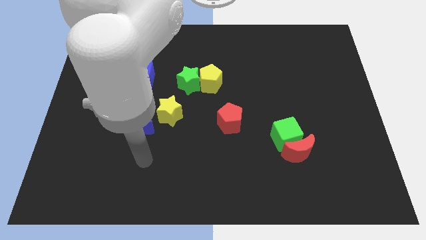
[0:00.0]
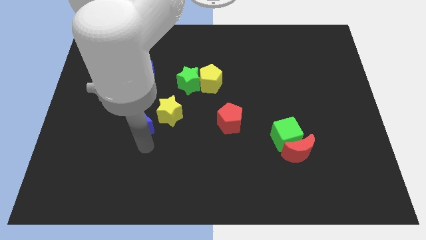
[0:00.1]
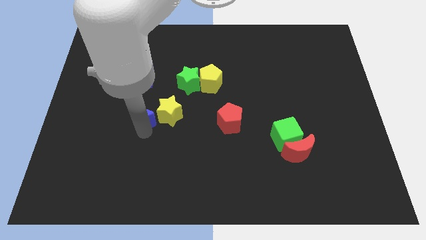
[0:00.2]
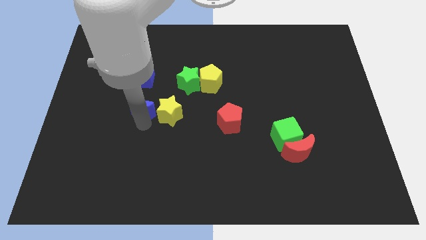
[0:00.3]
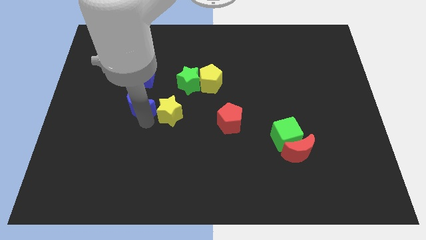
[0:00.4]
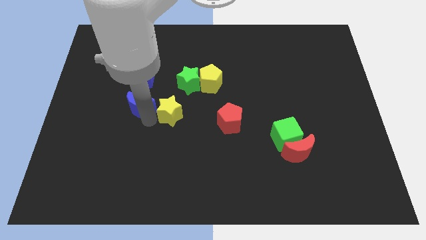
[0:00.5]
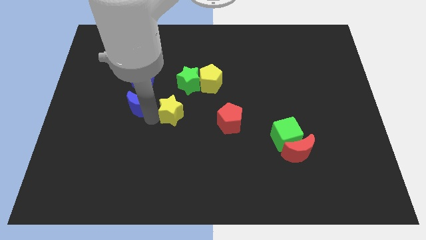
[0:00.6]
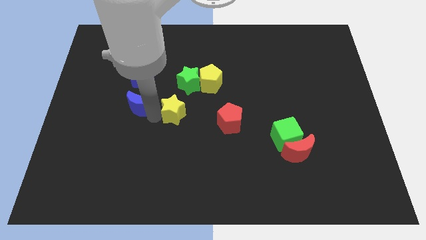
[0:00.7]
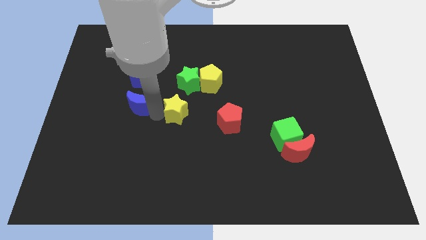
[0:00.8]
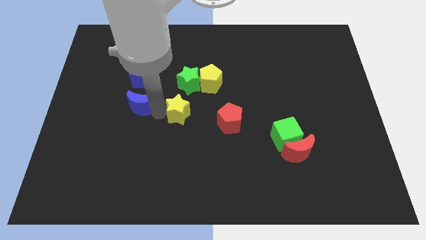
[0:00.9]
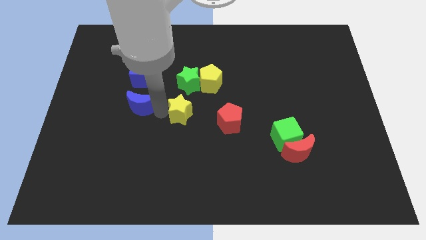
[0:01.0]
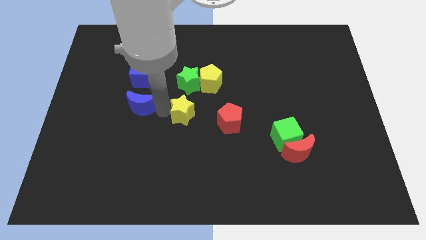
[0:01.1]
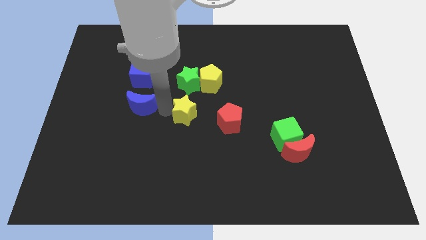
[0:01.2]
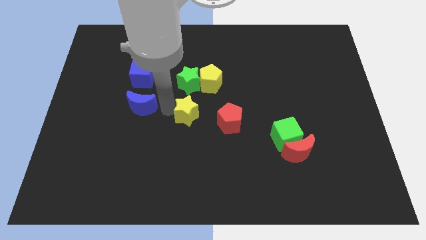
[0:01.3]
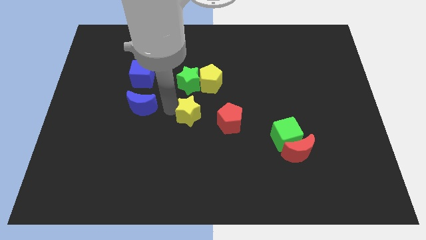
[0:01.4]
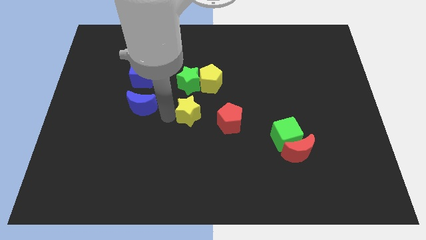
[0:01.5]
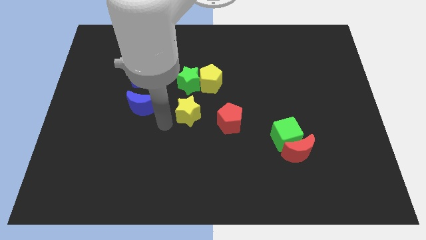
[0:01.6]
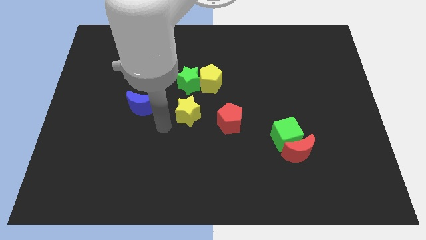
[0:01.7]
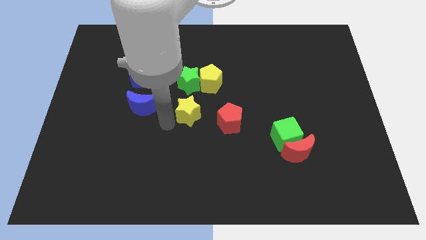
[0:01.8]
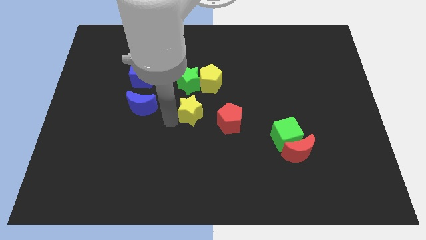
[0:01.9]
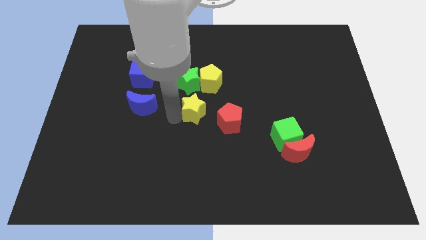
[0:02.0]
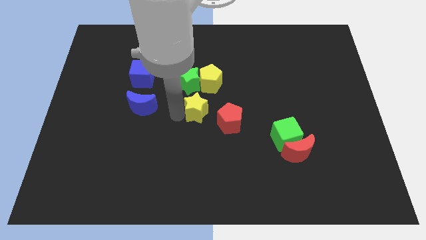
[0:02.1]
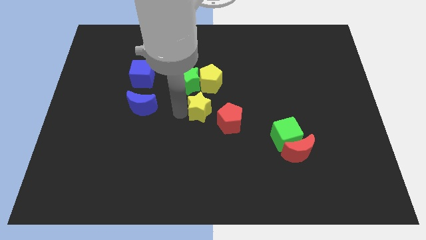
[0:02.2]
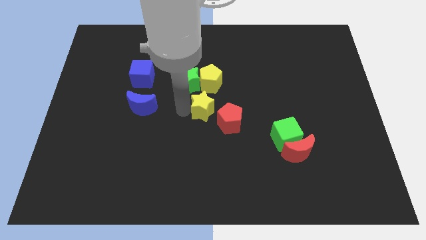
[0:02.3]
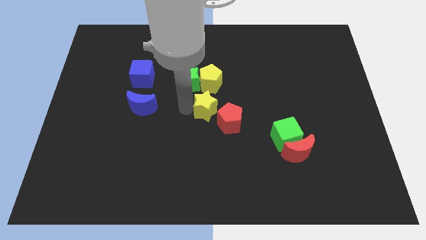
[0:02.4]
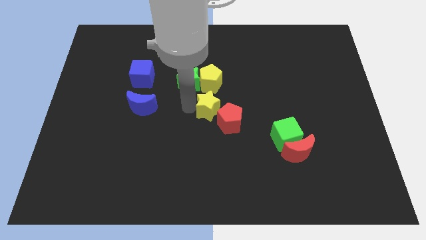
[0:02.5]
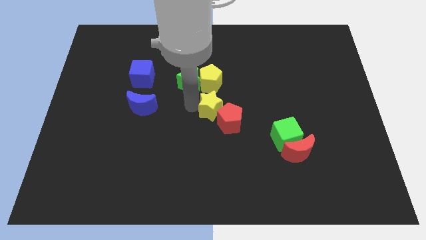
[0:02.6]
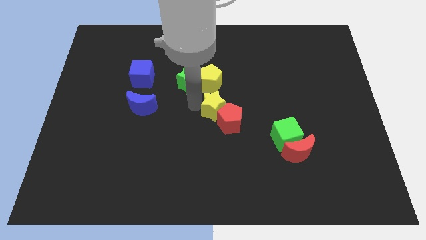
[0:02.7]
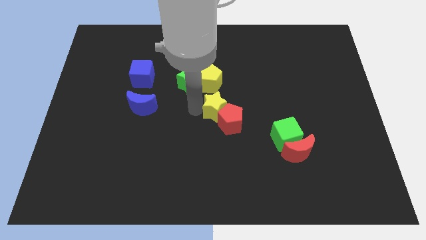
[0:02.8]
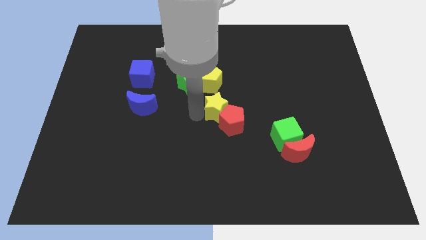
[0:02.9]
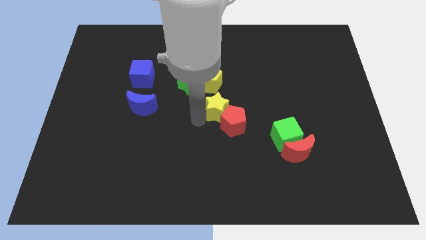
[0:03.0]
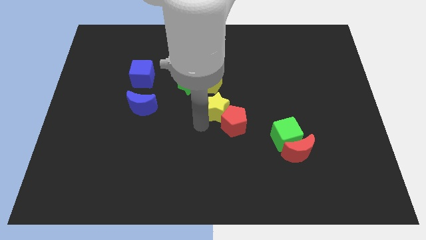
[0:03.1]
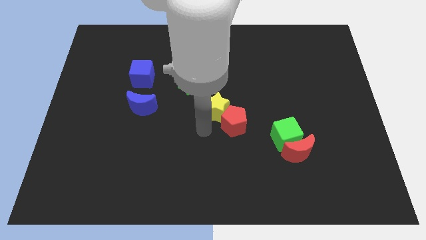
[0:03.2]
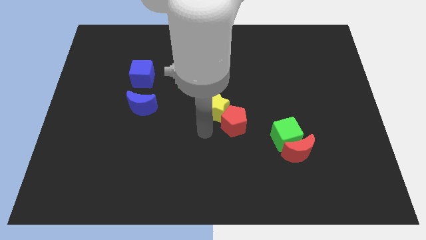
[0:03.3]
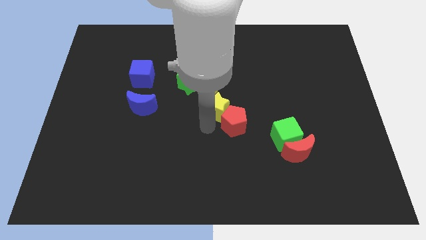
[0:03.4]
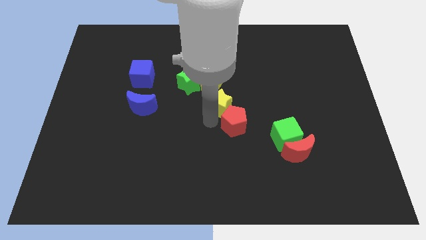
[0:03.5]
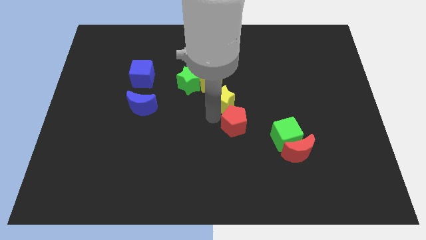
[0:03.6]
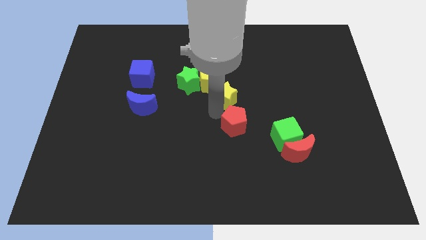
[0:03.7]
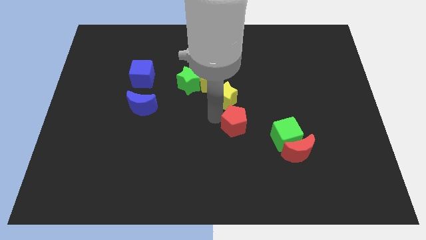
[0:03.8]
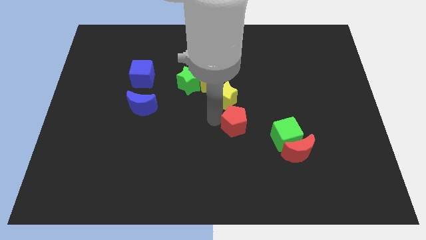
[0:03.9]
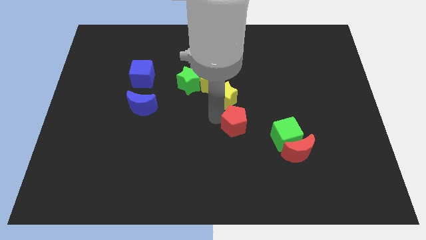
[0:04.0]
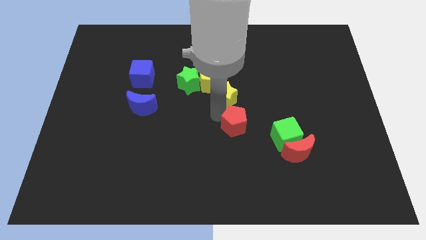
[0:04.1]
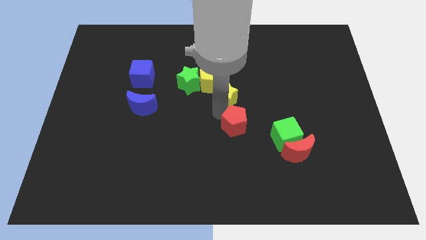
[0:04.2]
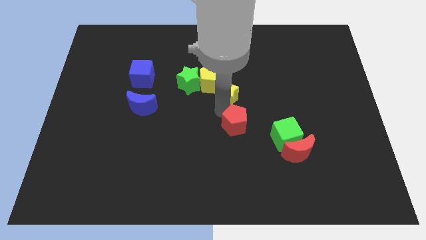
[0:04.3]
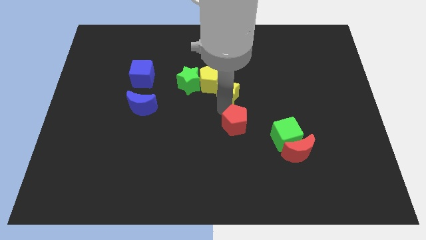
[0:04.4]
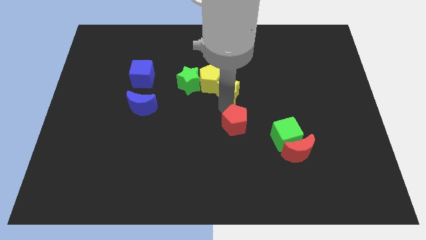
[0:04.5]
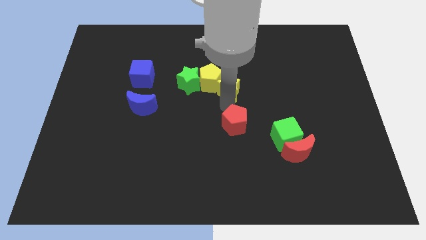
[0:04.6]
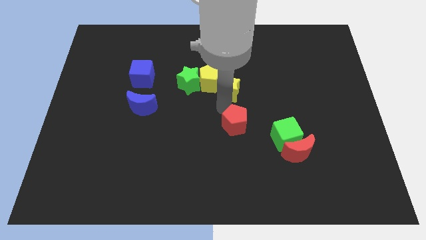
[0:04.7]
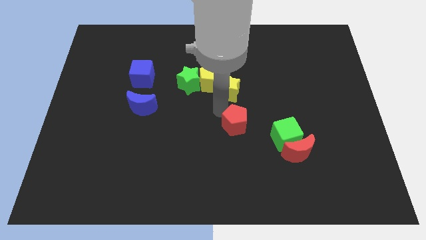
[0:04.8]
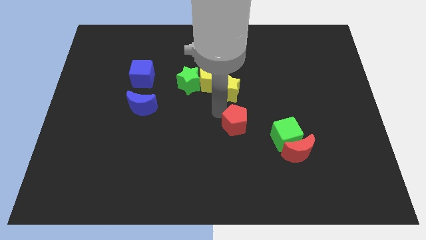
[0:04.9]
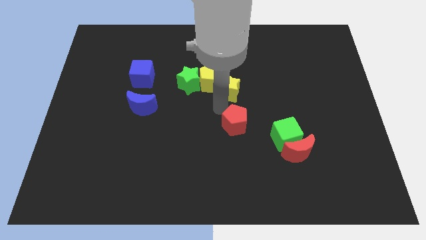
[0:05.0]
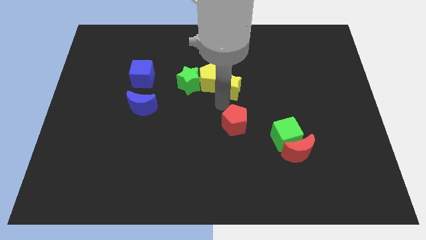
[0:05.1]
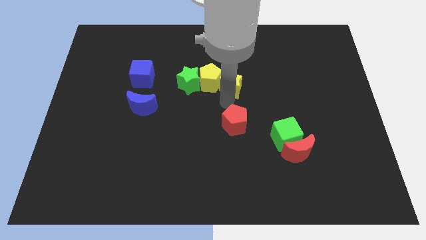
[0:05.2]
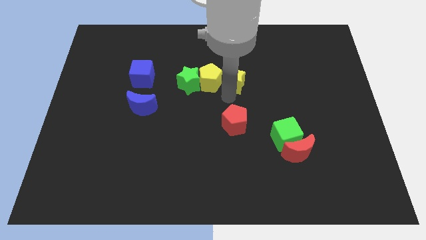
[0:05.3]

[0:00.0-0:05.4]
push the yellow star diagonally up and to the right of the yellow pentagon

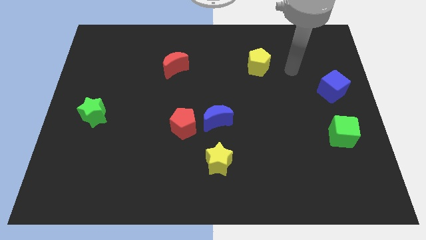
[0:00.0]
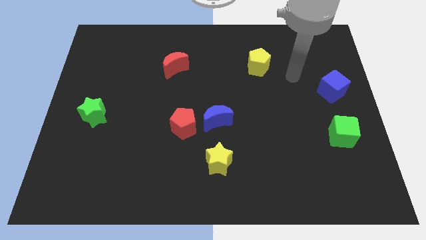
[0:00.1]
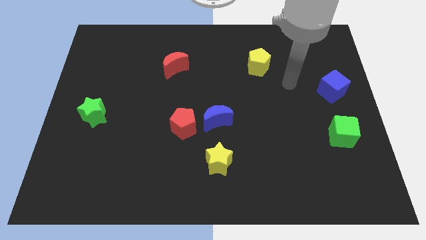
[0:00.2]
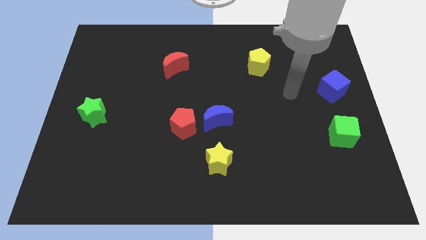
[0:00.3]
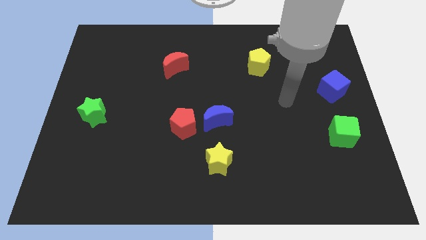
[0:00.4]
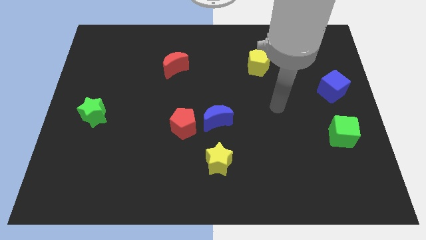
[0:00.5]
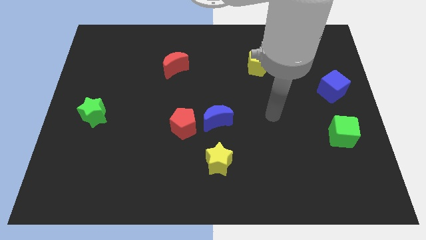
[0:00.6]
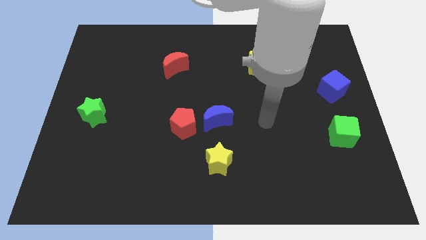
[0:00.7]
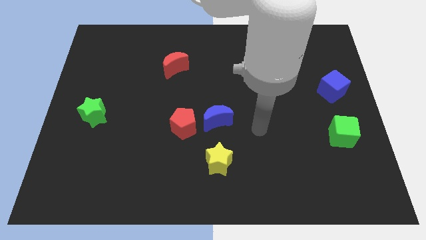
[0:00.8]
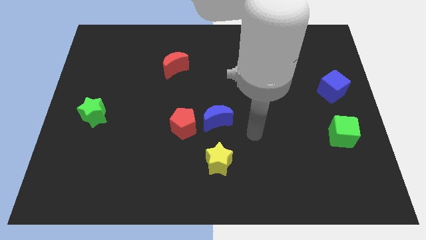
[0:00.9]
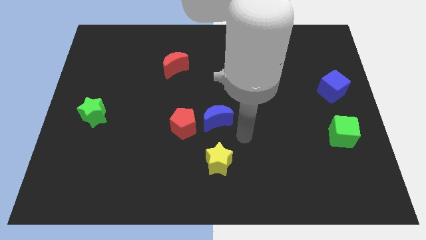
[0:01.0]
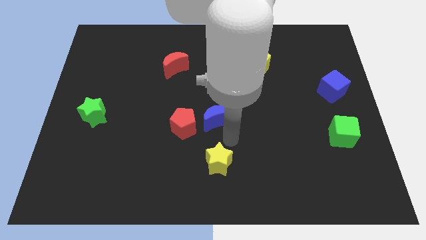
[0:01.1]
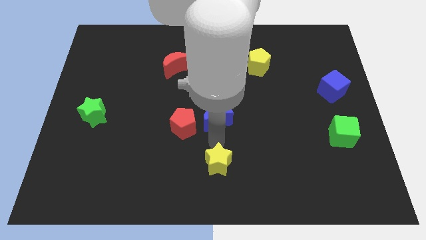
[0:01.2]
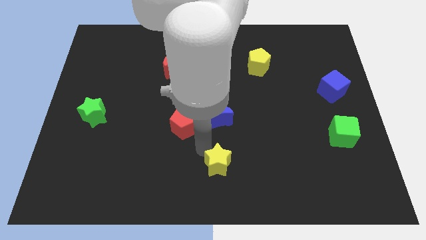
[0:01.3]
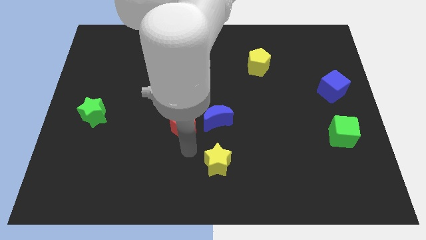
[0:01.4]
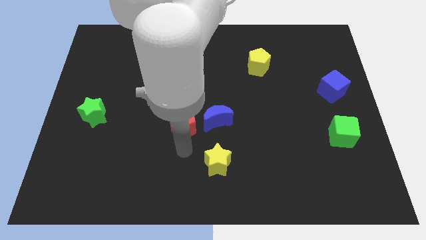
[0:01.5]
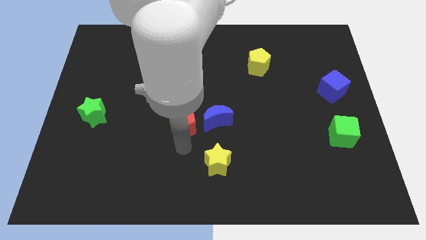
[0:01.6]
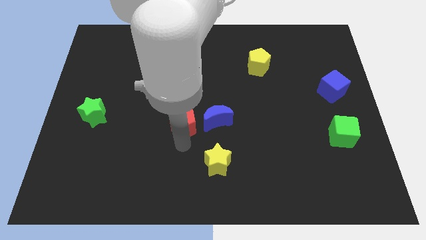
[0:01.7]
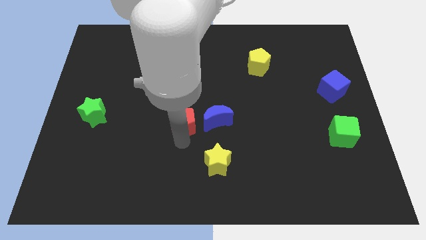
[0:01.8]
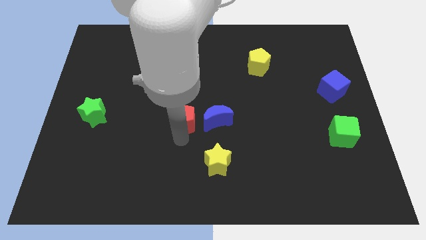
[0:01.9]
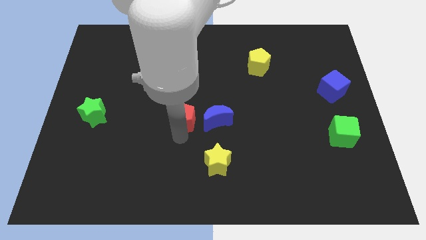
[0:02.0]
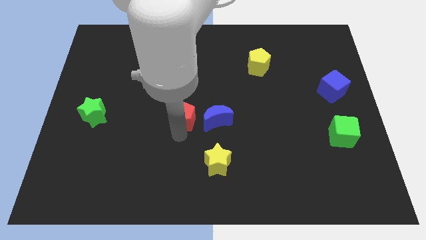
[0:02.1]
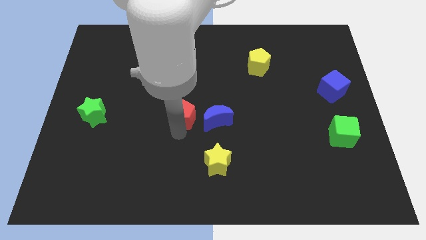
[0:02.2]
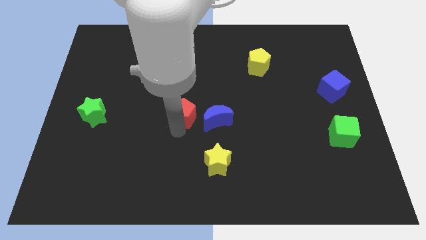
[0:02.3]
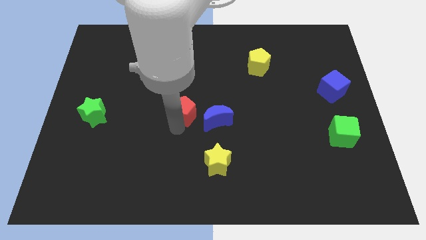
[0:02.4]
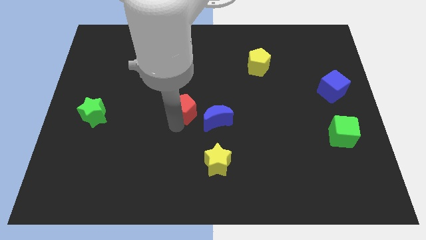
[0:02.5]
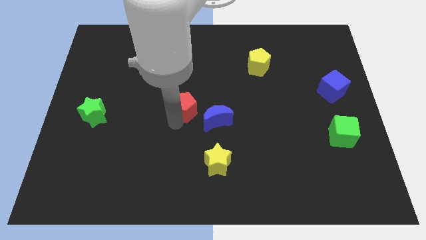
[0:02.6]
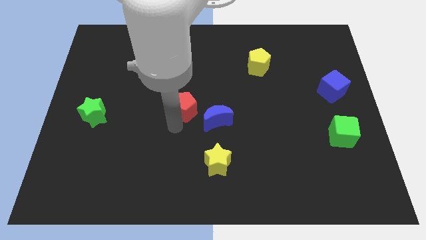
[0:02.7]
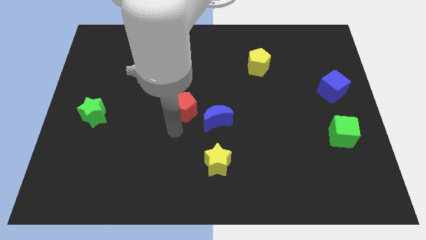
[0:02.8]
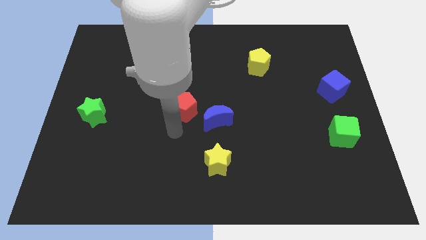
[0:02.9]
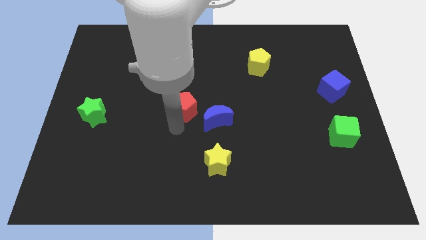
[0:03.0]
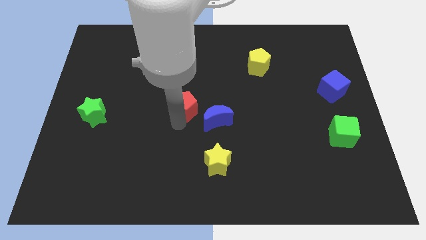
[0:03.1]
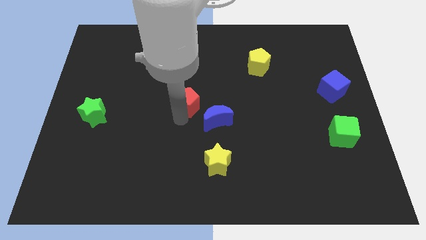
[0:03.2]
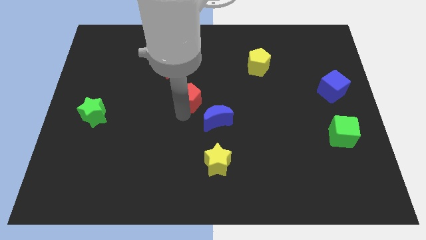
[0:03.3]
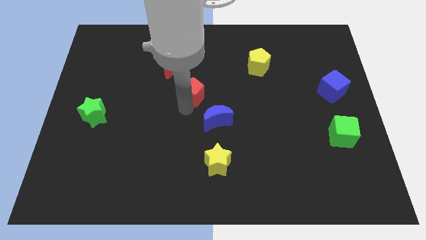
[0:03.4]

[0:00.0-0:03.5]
move the red pentagon diagonally down and to the right of the red moon
